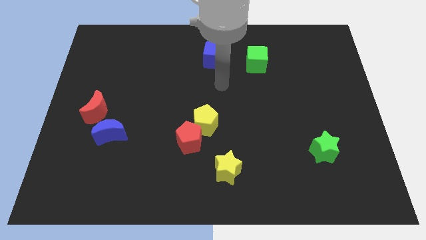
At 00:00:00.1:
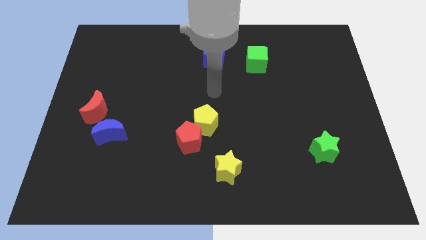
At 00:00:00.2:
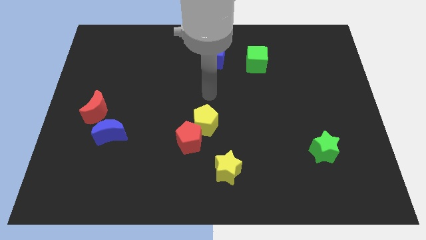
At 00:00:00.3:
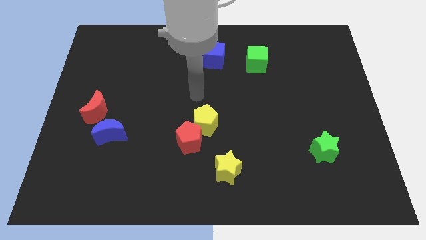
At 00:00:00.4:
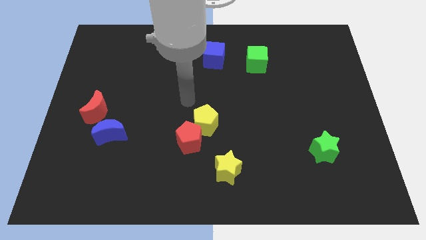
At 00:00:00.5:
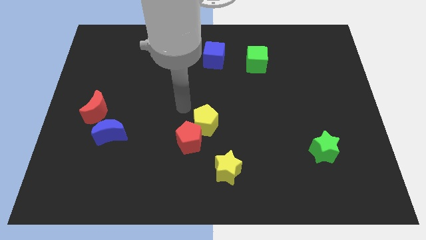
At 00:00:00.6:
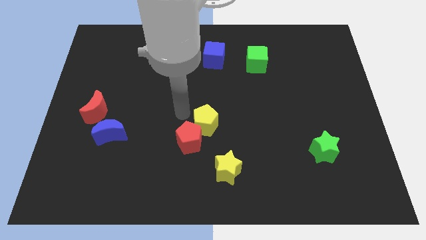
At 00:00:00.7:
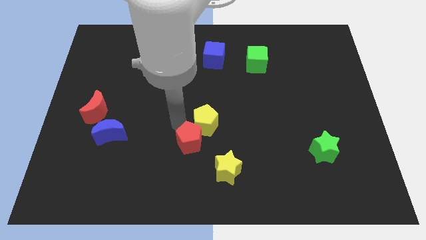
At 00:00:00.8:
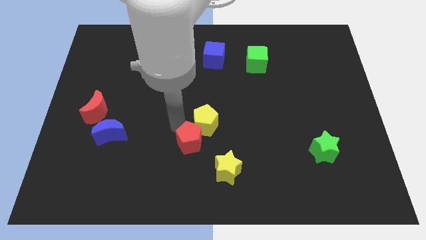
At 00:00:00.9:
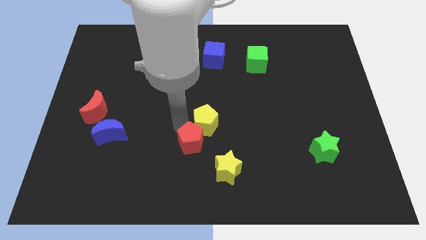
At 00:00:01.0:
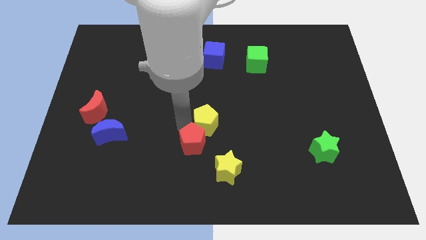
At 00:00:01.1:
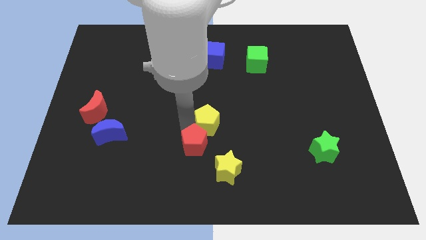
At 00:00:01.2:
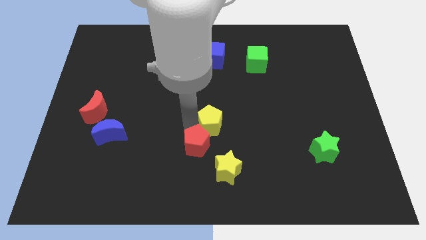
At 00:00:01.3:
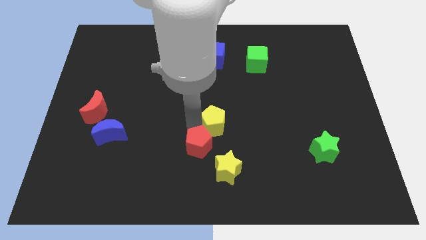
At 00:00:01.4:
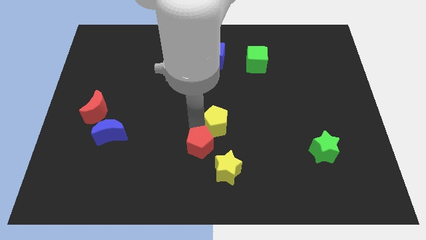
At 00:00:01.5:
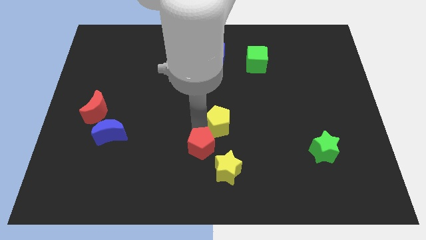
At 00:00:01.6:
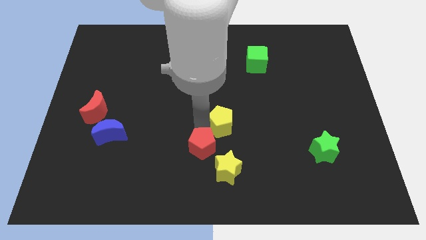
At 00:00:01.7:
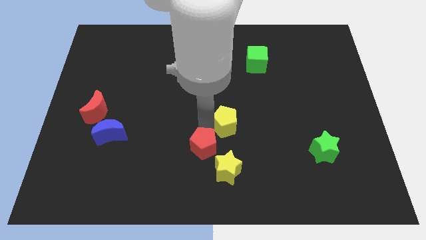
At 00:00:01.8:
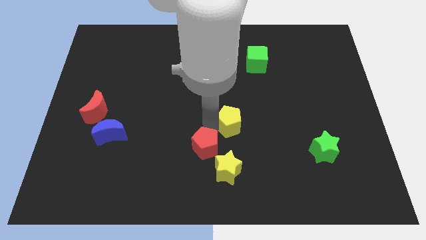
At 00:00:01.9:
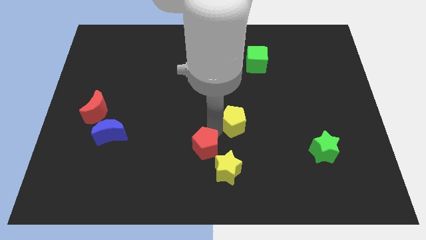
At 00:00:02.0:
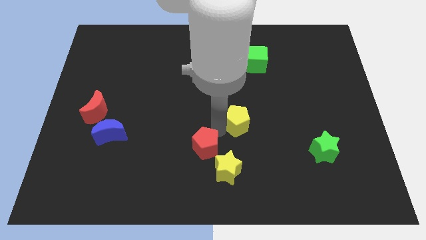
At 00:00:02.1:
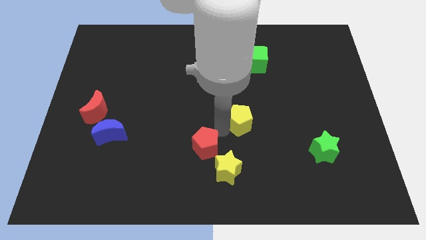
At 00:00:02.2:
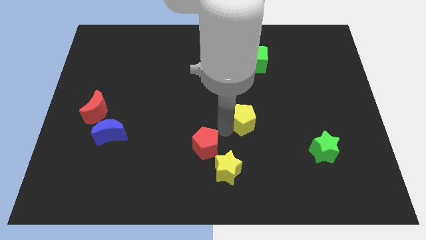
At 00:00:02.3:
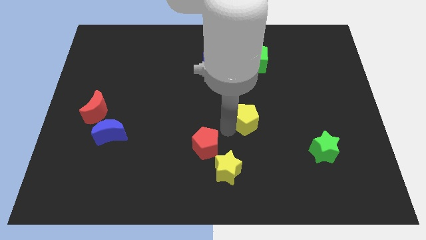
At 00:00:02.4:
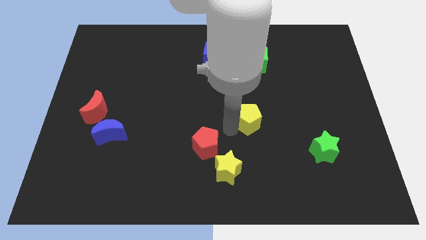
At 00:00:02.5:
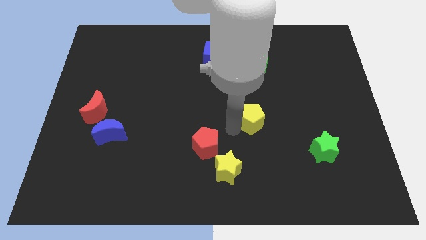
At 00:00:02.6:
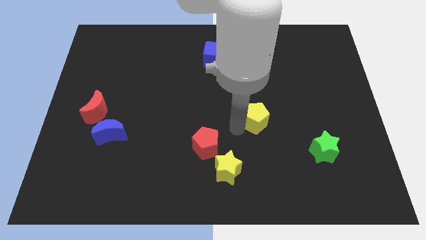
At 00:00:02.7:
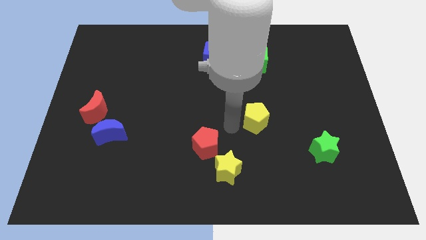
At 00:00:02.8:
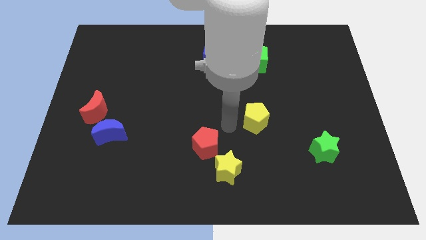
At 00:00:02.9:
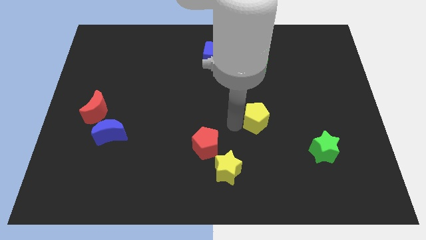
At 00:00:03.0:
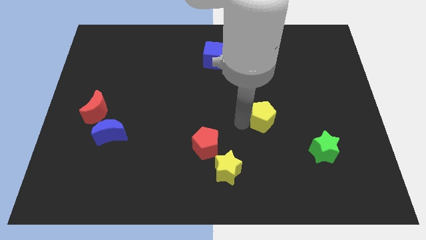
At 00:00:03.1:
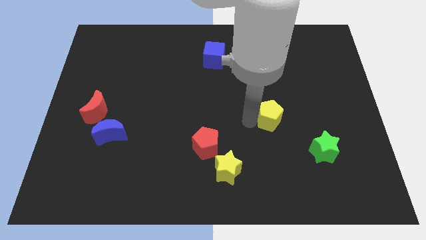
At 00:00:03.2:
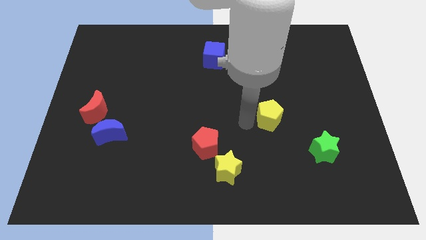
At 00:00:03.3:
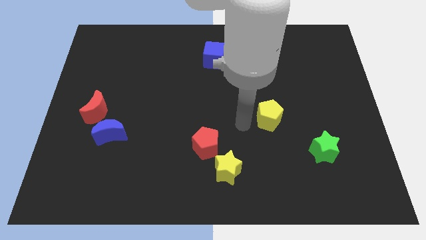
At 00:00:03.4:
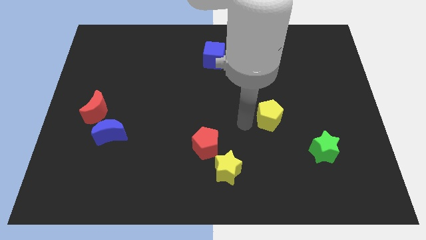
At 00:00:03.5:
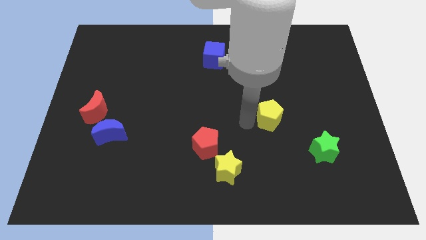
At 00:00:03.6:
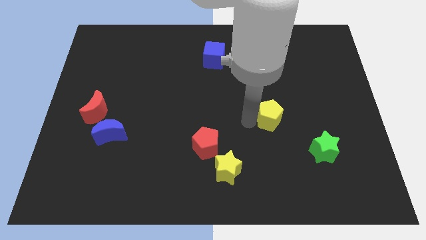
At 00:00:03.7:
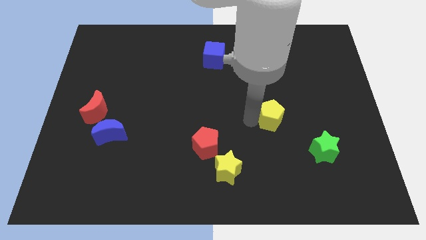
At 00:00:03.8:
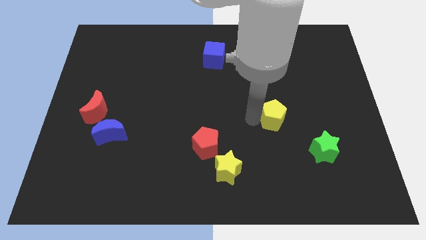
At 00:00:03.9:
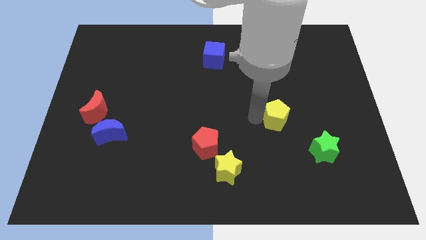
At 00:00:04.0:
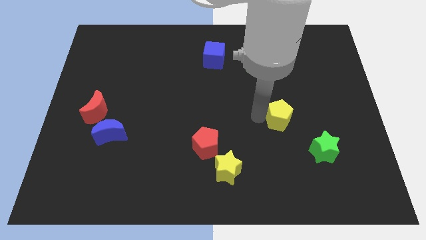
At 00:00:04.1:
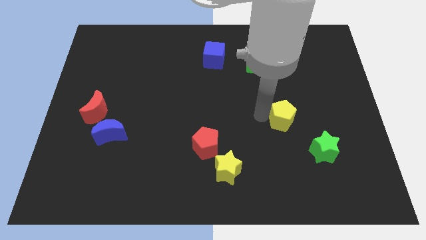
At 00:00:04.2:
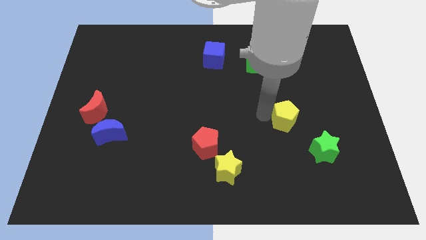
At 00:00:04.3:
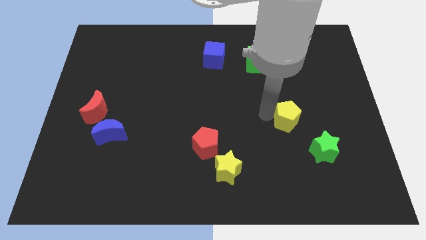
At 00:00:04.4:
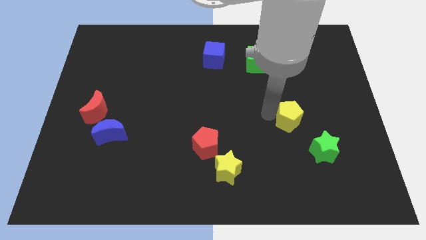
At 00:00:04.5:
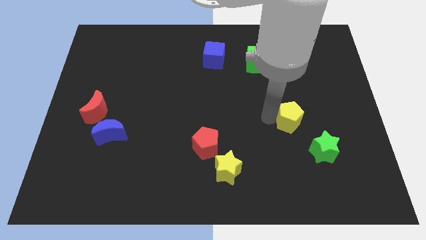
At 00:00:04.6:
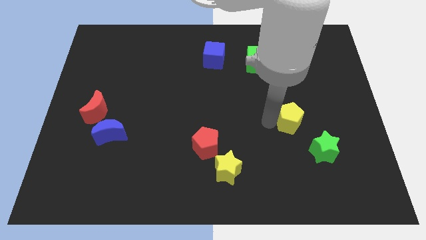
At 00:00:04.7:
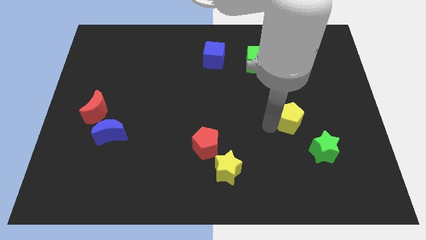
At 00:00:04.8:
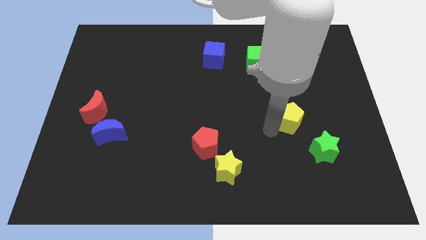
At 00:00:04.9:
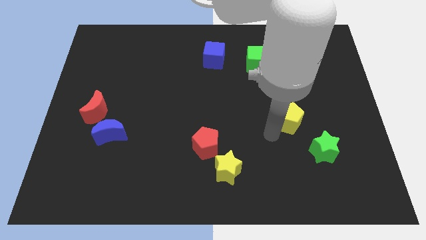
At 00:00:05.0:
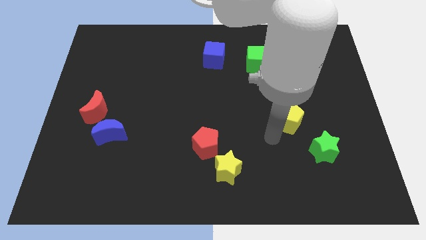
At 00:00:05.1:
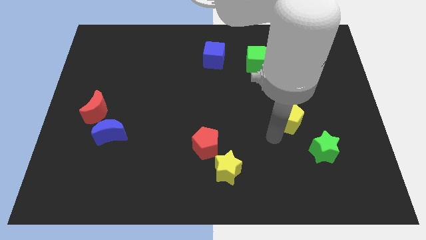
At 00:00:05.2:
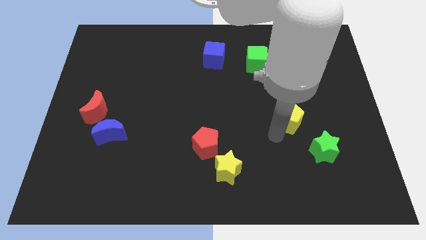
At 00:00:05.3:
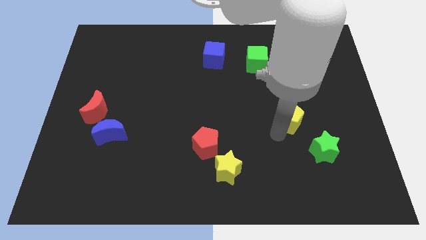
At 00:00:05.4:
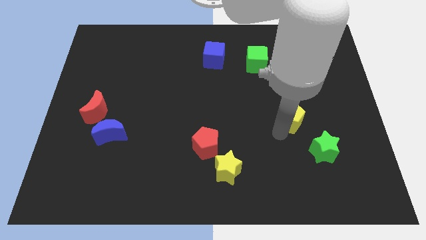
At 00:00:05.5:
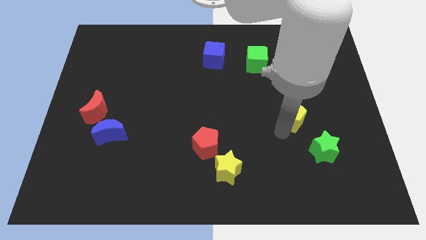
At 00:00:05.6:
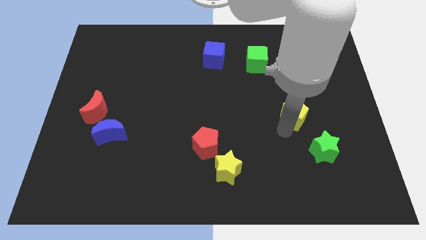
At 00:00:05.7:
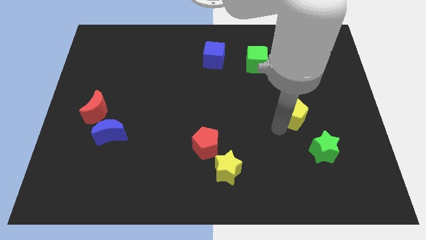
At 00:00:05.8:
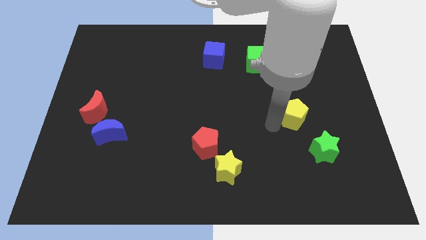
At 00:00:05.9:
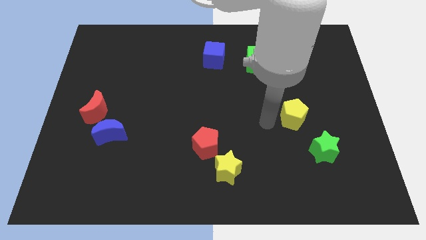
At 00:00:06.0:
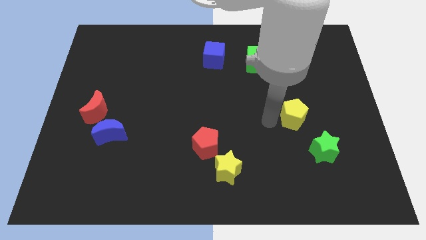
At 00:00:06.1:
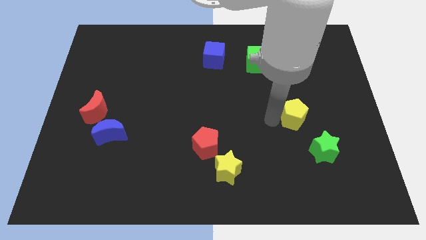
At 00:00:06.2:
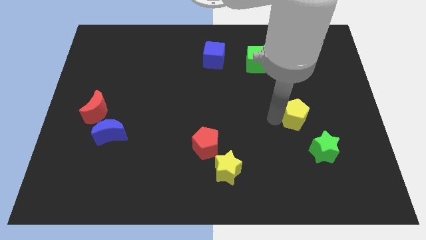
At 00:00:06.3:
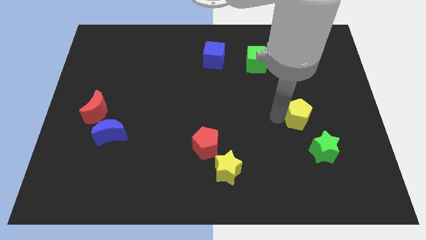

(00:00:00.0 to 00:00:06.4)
put the yellow pentagon to the top side of the green star
